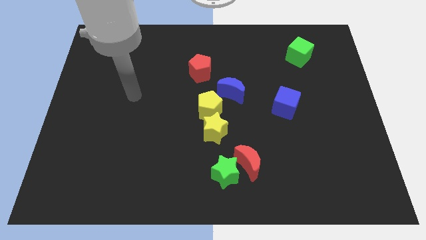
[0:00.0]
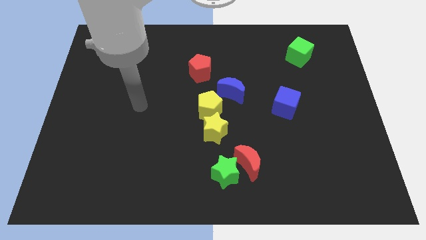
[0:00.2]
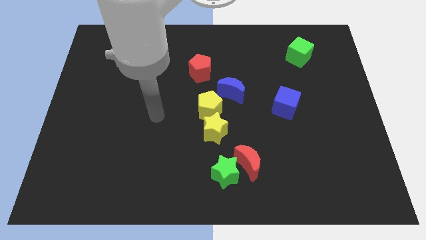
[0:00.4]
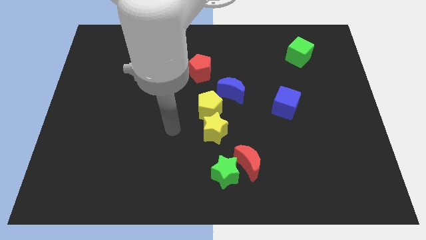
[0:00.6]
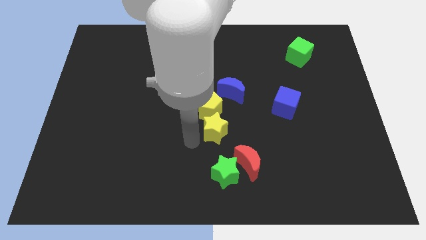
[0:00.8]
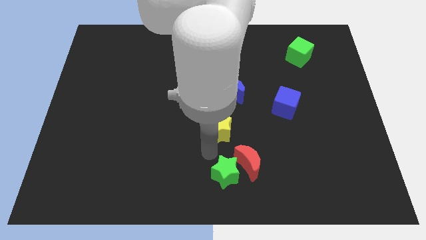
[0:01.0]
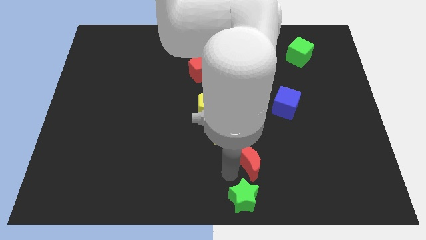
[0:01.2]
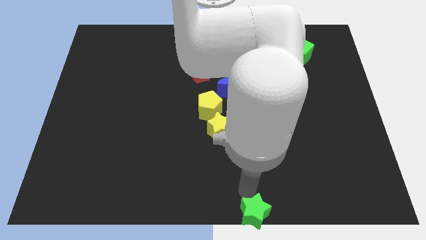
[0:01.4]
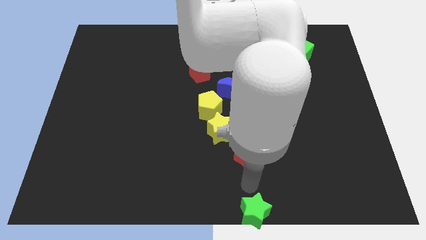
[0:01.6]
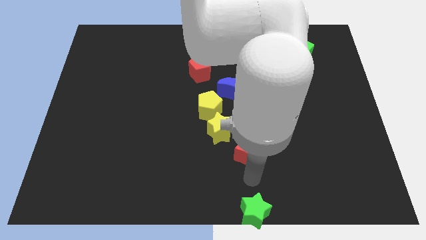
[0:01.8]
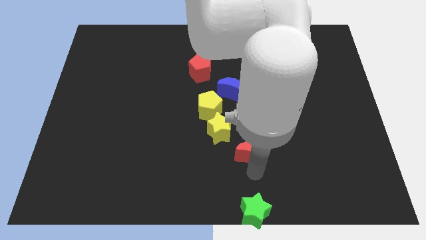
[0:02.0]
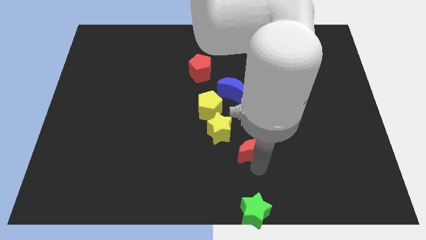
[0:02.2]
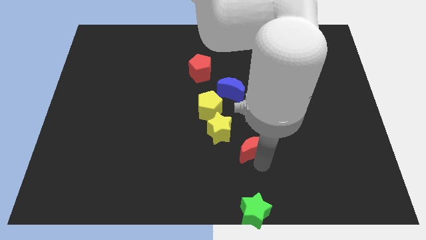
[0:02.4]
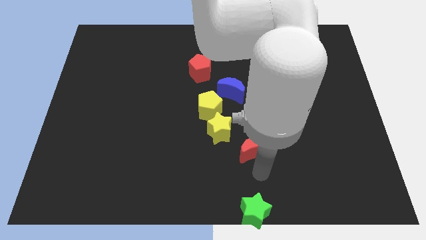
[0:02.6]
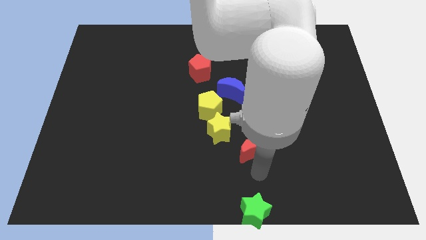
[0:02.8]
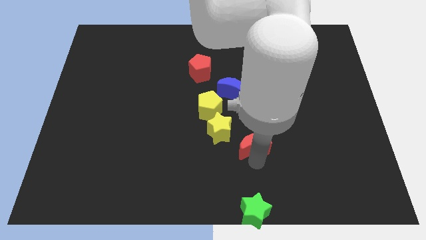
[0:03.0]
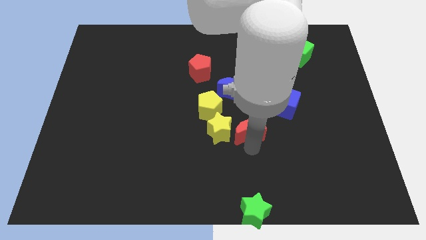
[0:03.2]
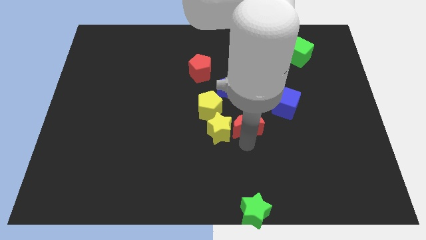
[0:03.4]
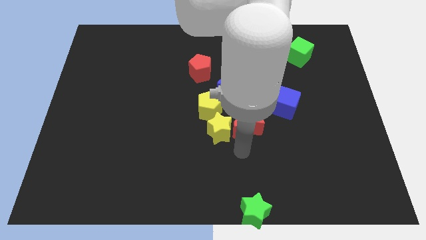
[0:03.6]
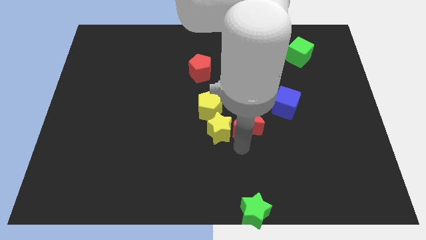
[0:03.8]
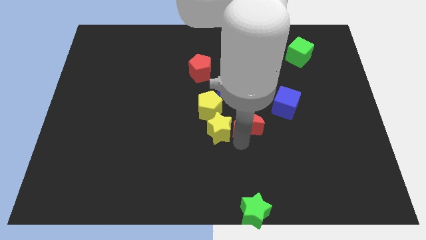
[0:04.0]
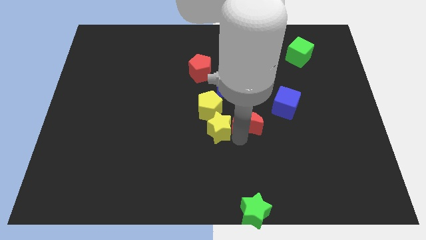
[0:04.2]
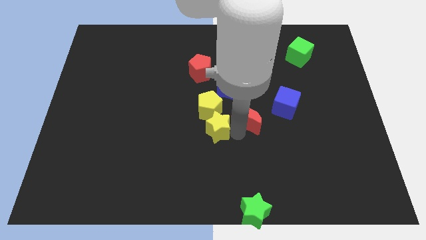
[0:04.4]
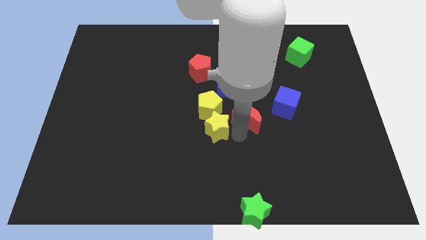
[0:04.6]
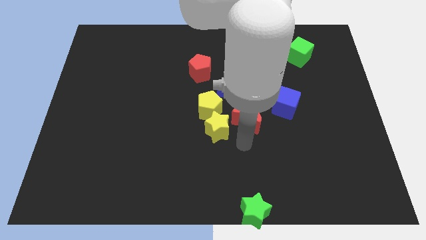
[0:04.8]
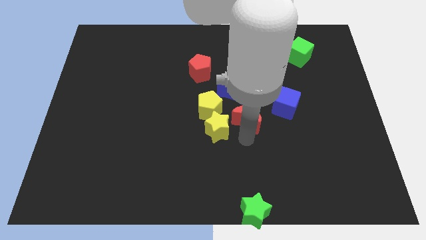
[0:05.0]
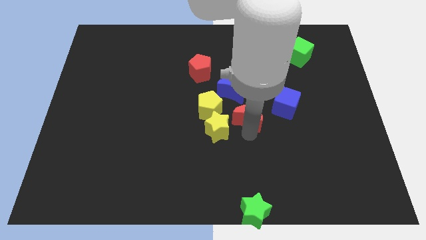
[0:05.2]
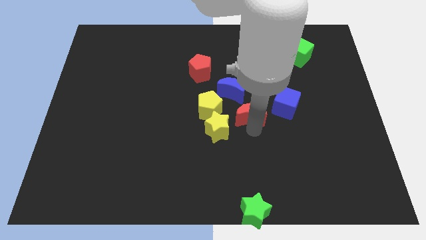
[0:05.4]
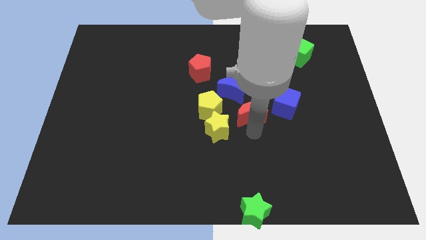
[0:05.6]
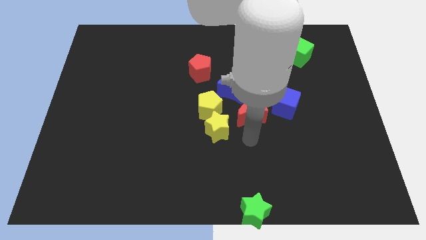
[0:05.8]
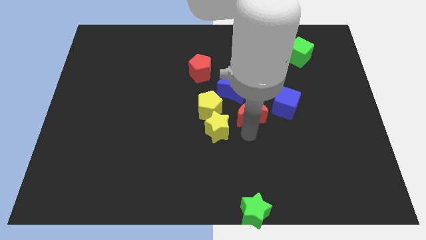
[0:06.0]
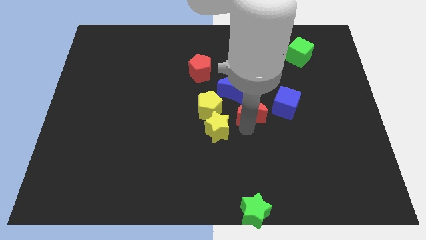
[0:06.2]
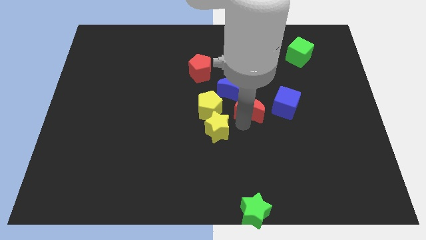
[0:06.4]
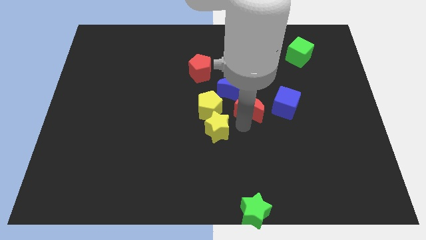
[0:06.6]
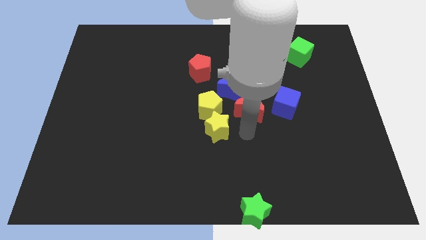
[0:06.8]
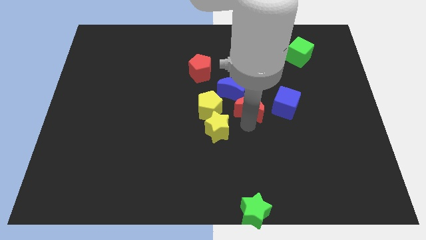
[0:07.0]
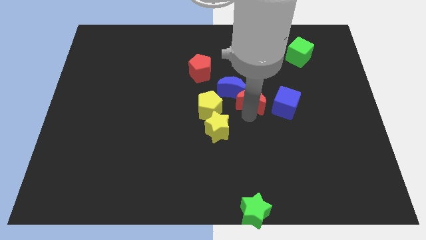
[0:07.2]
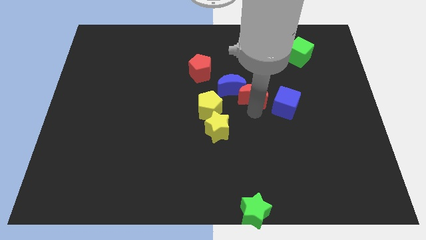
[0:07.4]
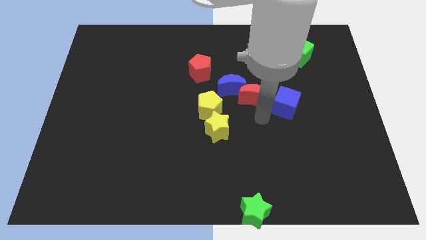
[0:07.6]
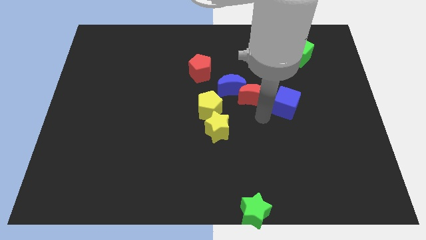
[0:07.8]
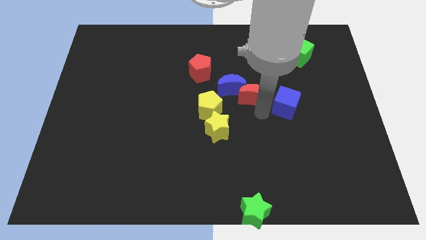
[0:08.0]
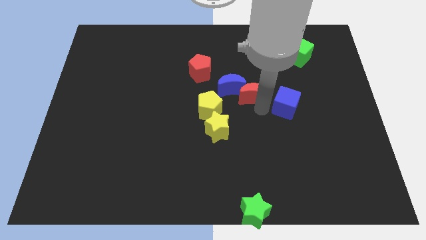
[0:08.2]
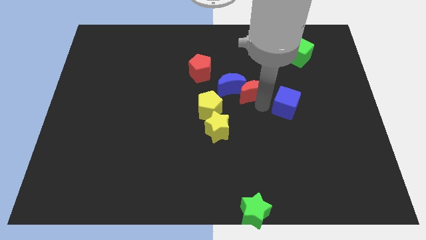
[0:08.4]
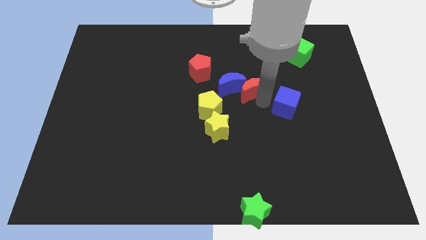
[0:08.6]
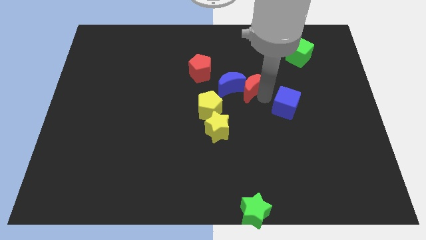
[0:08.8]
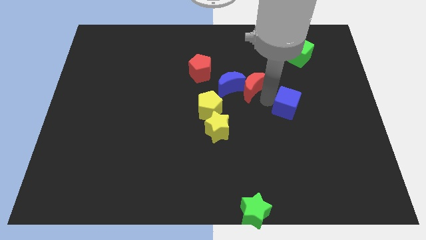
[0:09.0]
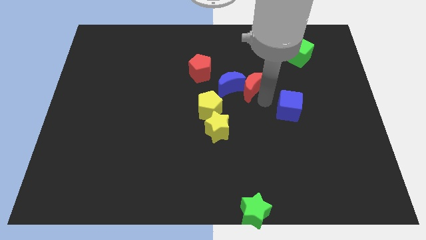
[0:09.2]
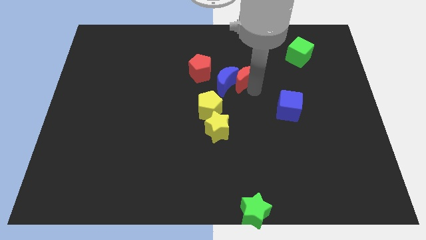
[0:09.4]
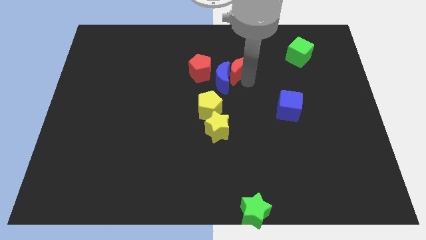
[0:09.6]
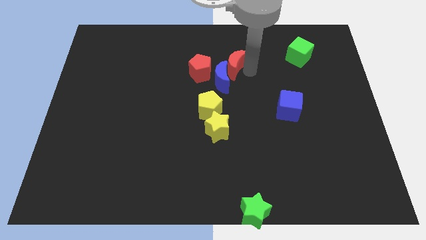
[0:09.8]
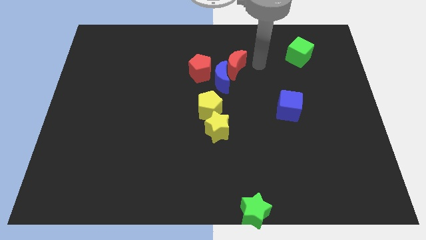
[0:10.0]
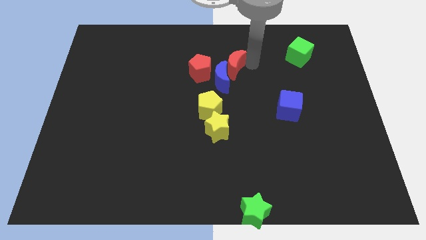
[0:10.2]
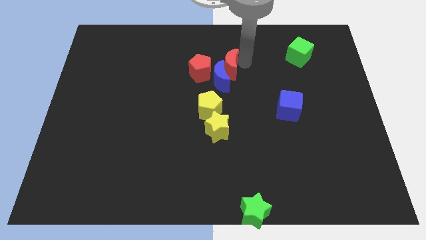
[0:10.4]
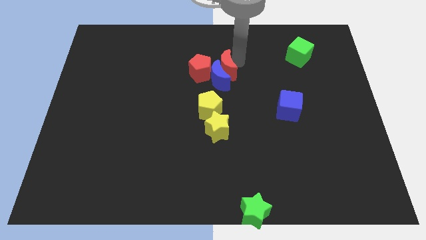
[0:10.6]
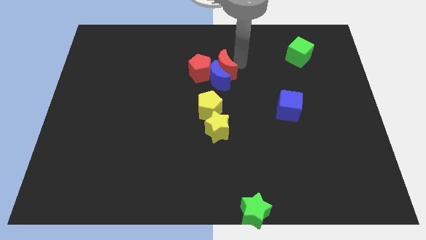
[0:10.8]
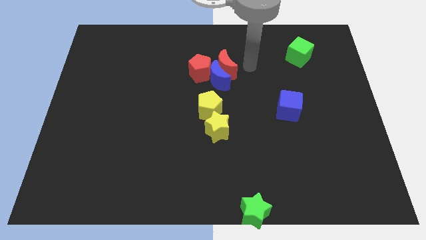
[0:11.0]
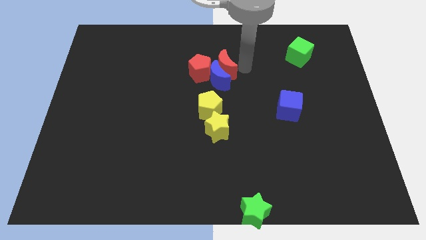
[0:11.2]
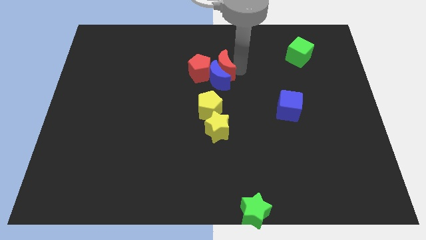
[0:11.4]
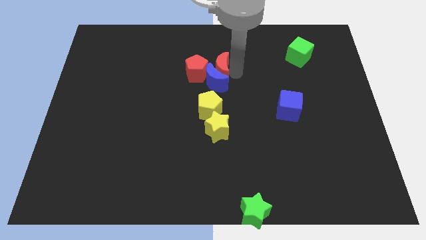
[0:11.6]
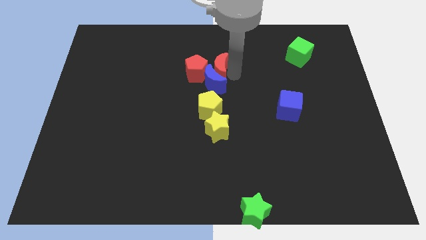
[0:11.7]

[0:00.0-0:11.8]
put the red moon towards the red pentagon

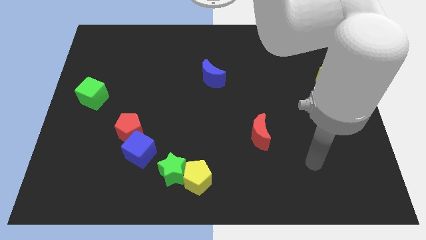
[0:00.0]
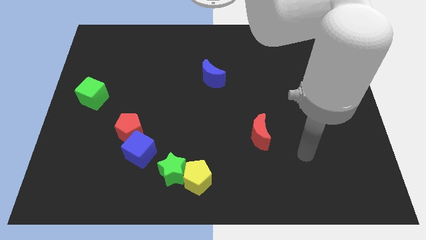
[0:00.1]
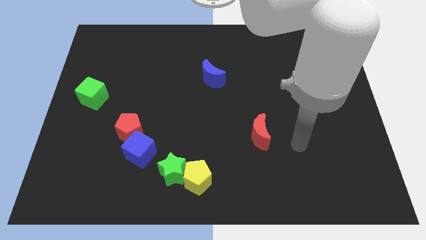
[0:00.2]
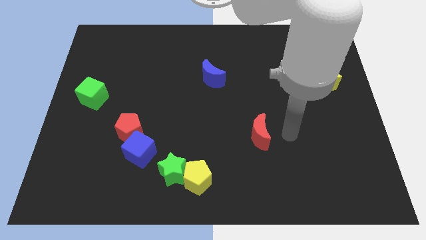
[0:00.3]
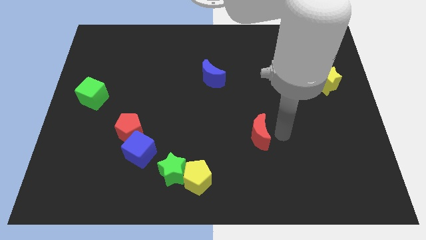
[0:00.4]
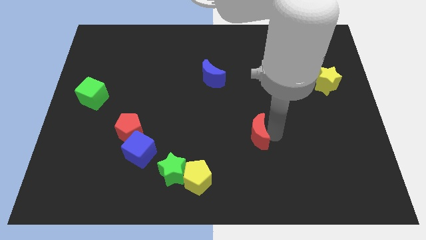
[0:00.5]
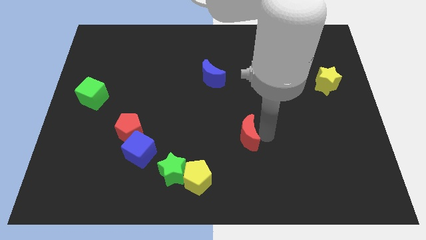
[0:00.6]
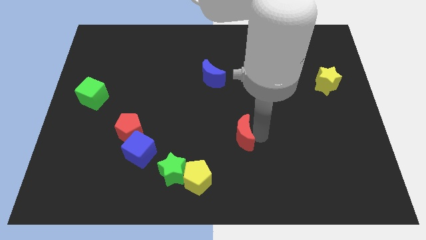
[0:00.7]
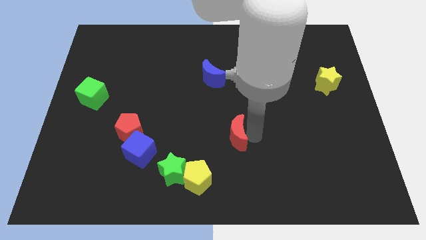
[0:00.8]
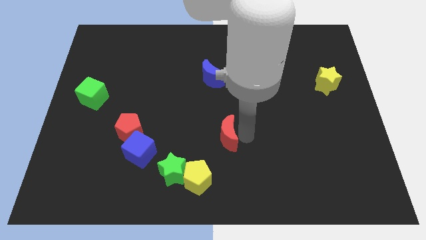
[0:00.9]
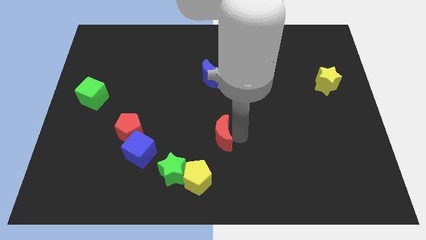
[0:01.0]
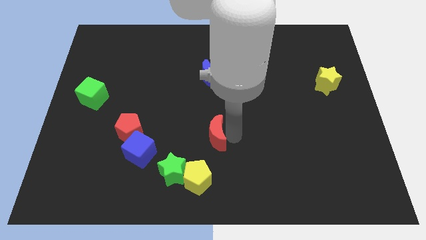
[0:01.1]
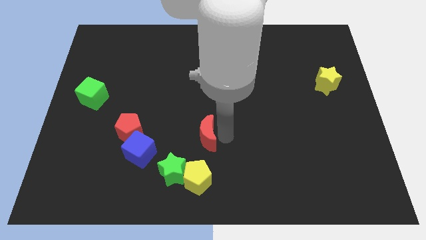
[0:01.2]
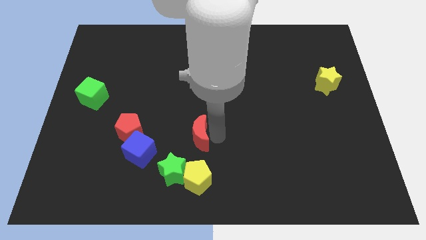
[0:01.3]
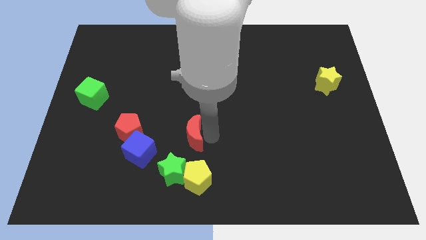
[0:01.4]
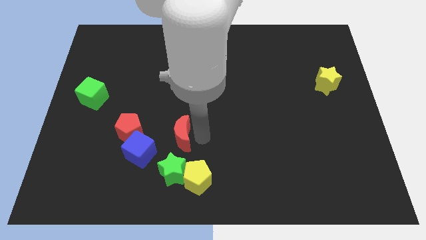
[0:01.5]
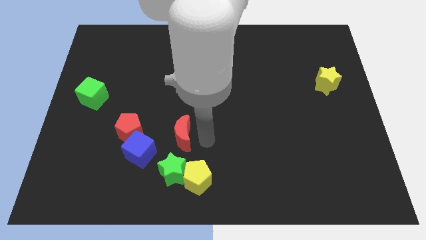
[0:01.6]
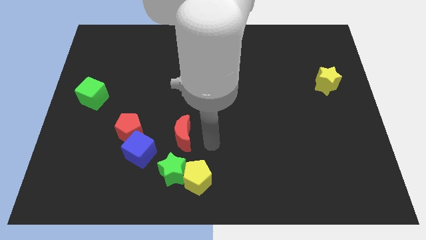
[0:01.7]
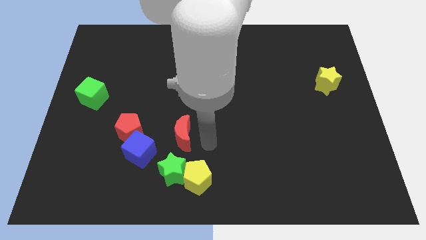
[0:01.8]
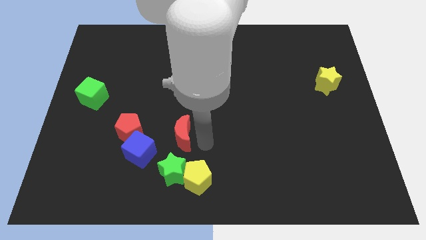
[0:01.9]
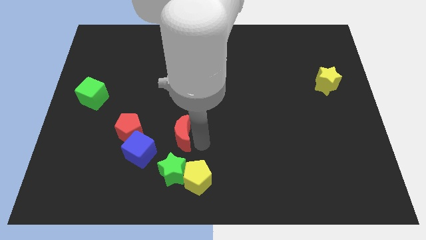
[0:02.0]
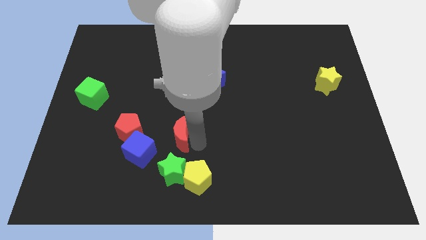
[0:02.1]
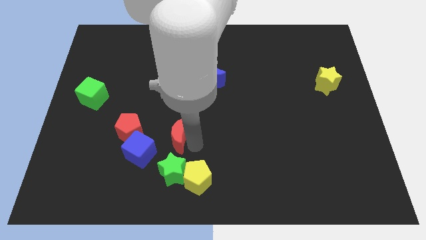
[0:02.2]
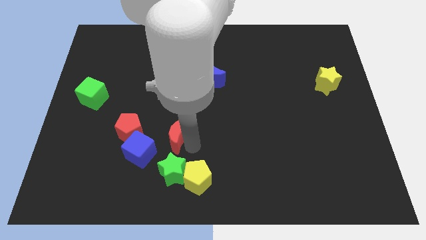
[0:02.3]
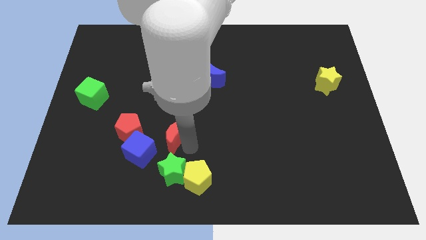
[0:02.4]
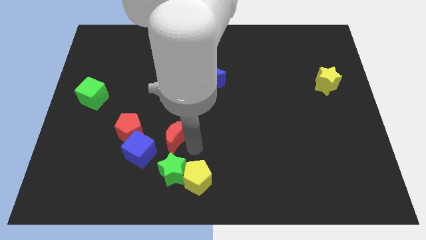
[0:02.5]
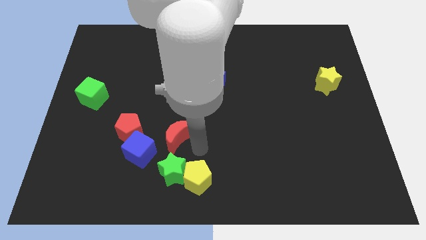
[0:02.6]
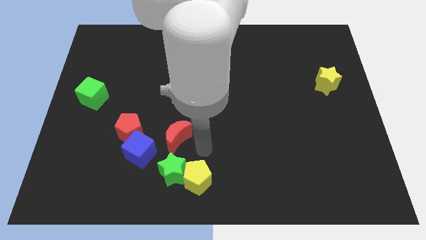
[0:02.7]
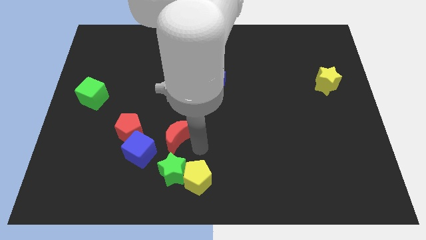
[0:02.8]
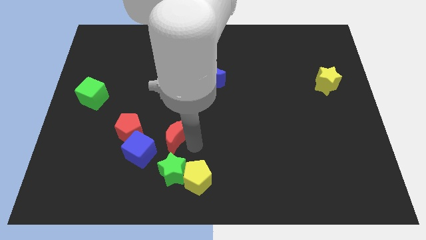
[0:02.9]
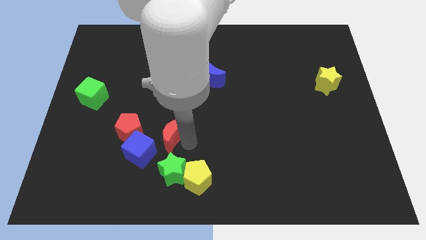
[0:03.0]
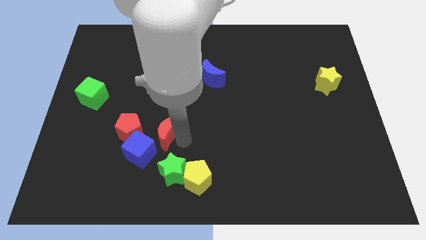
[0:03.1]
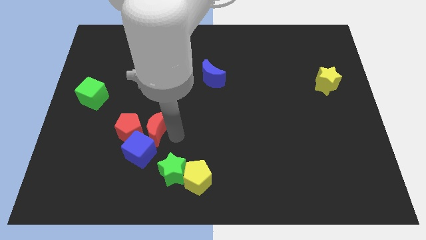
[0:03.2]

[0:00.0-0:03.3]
push the red moon next to the red pentagon
